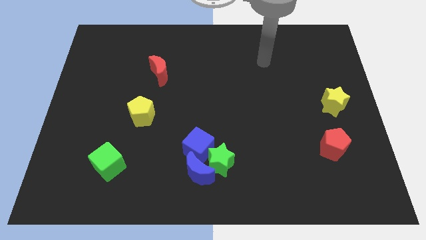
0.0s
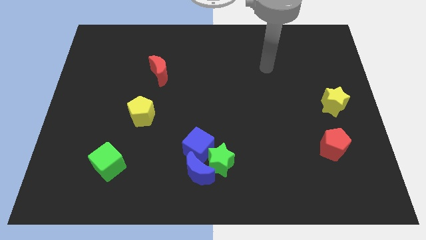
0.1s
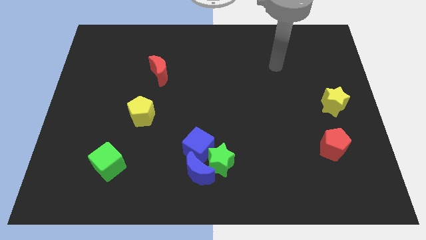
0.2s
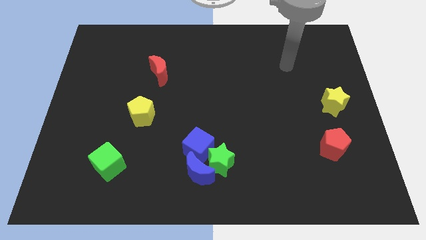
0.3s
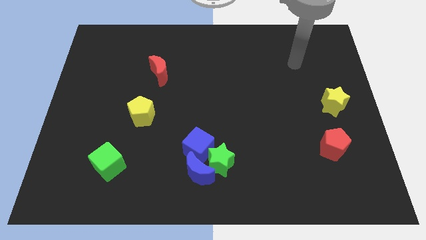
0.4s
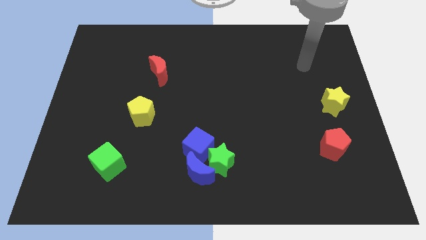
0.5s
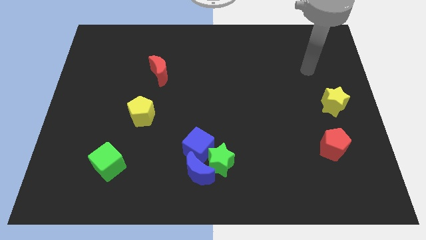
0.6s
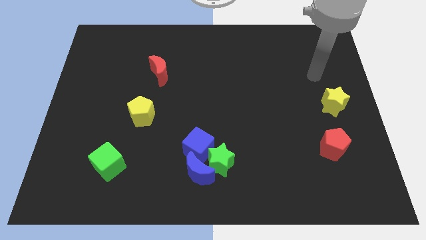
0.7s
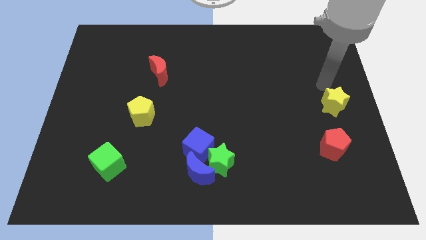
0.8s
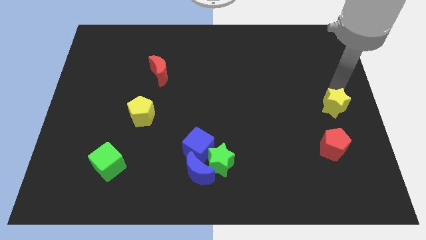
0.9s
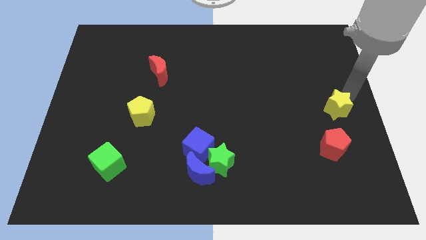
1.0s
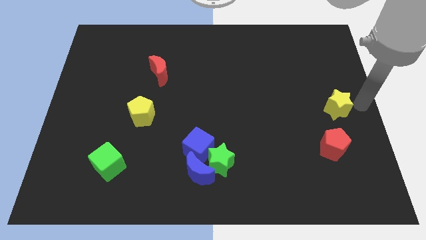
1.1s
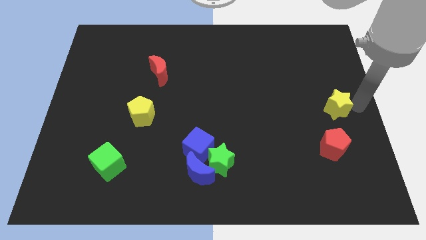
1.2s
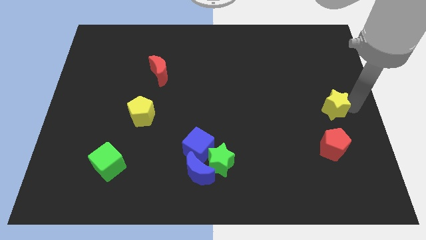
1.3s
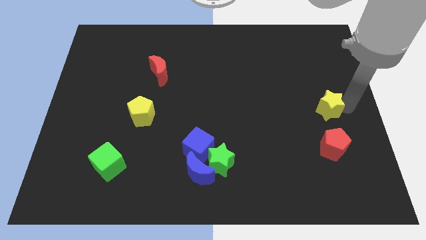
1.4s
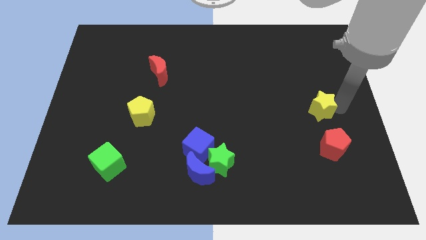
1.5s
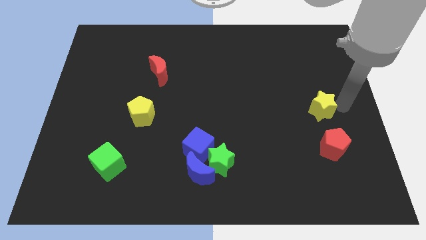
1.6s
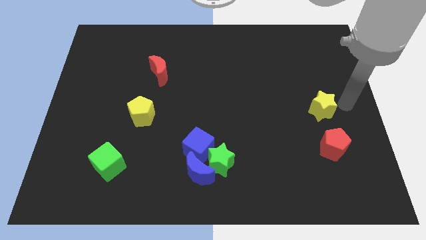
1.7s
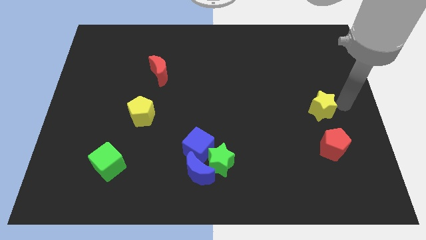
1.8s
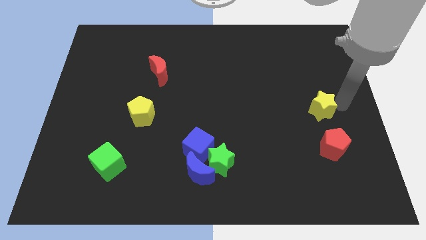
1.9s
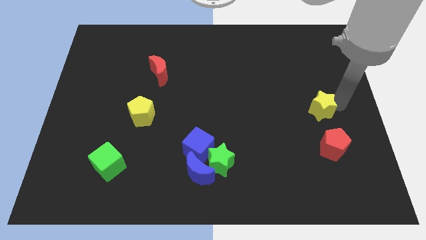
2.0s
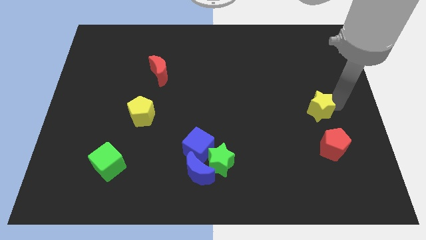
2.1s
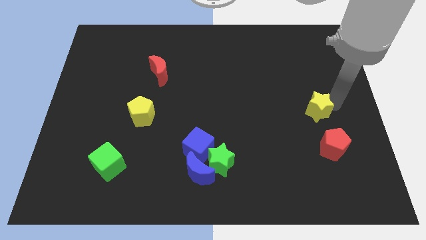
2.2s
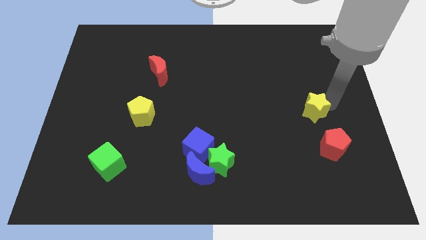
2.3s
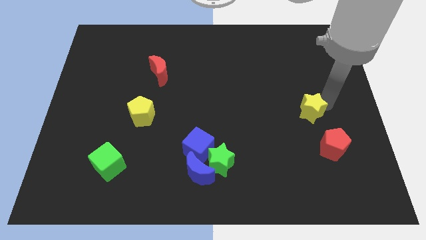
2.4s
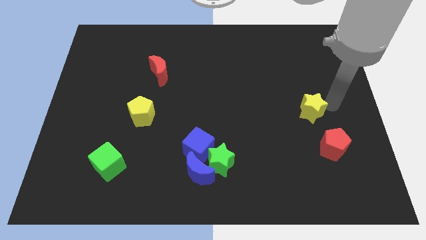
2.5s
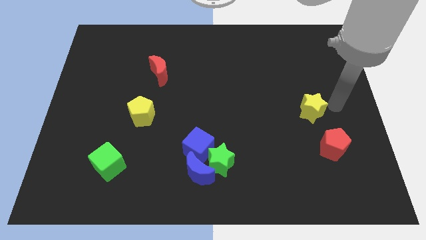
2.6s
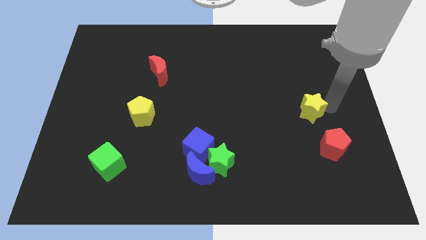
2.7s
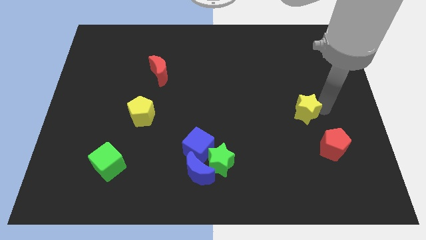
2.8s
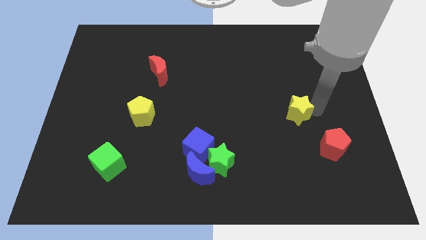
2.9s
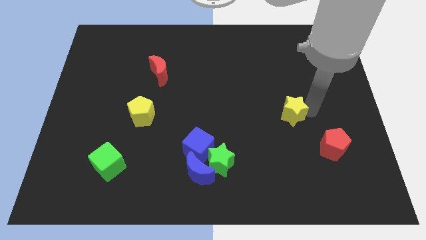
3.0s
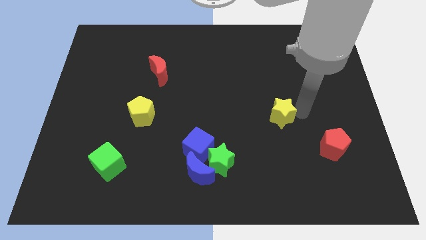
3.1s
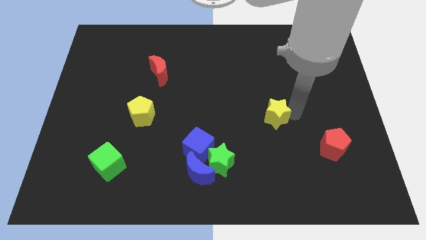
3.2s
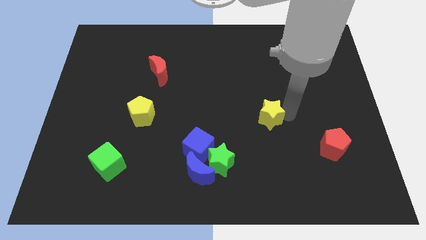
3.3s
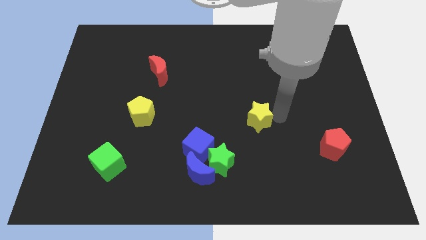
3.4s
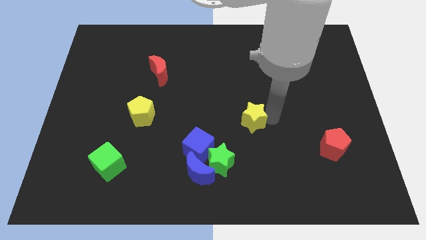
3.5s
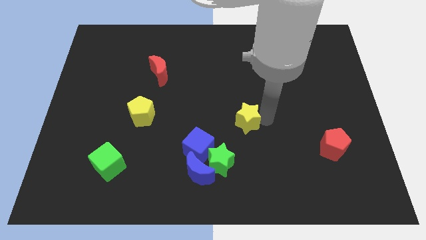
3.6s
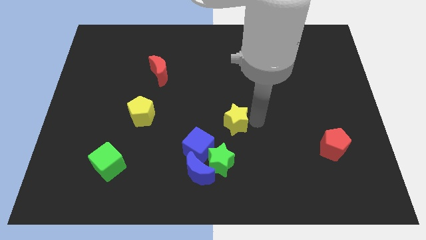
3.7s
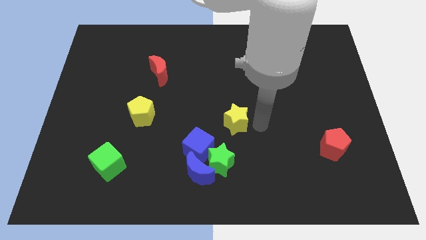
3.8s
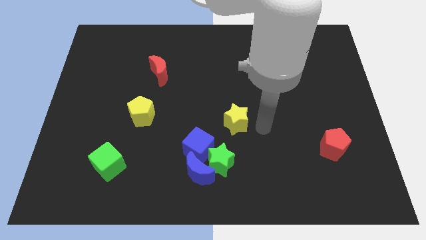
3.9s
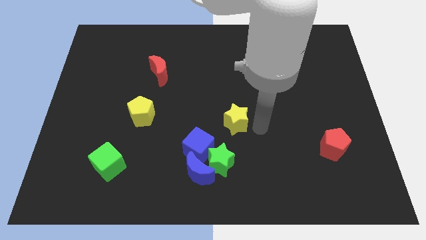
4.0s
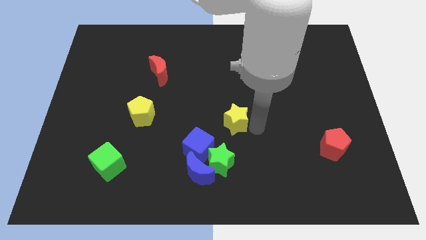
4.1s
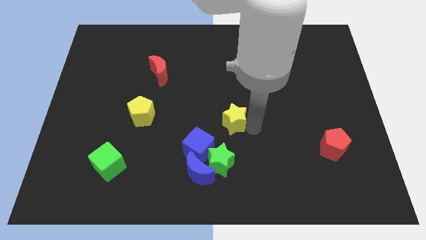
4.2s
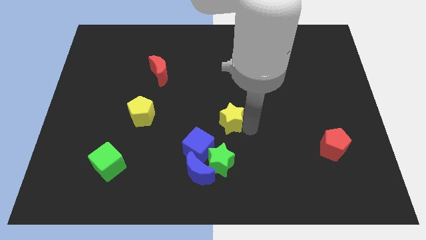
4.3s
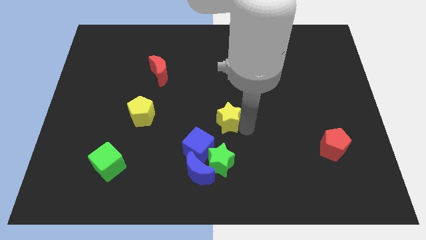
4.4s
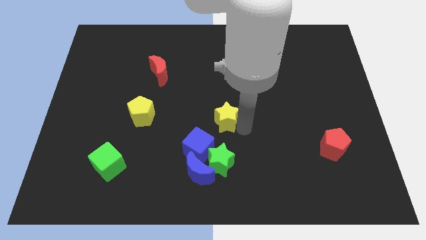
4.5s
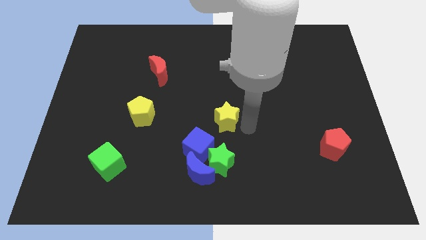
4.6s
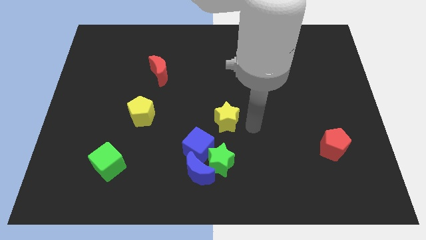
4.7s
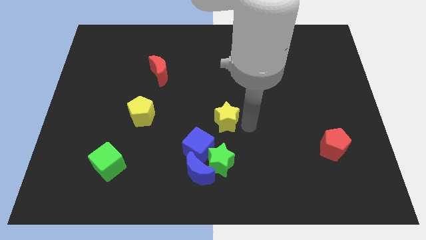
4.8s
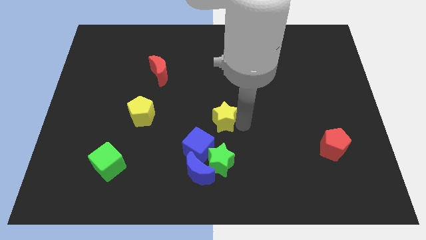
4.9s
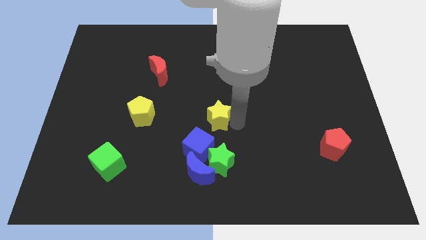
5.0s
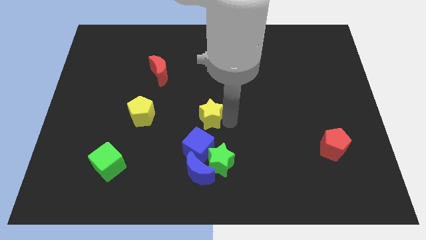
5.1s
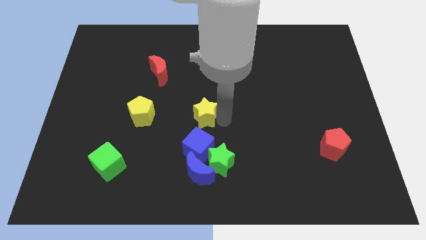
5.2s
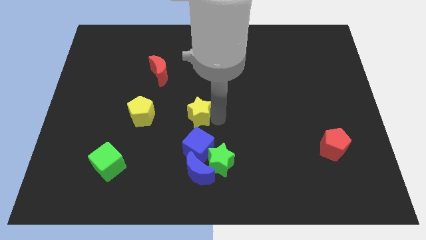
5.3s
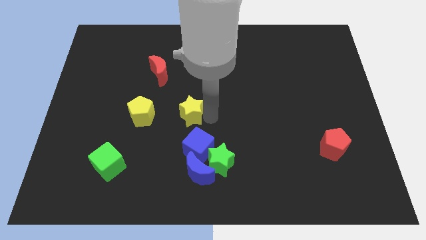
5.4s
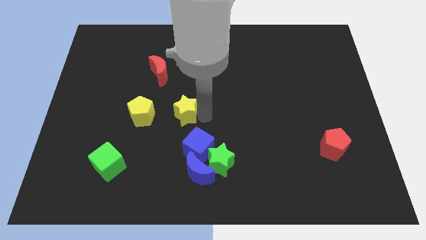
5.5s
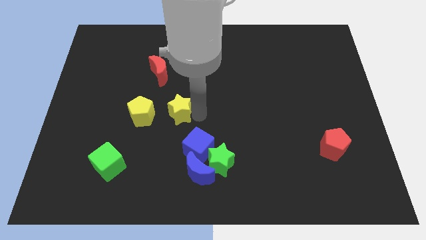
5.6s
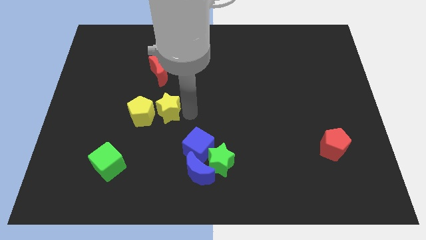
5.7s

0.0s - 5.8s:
put the yellow star towards the yellow pentagon

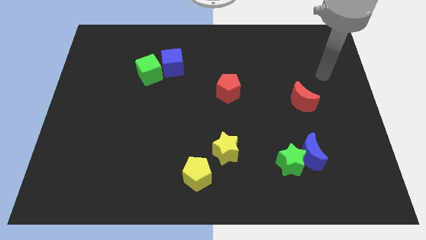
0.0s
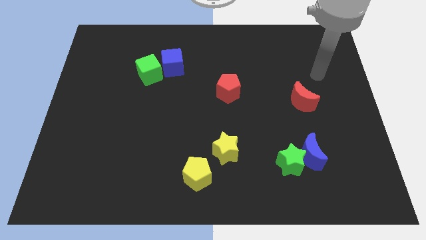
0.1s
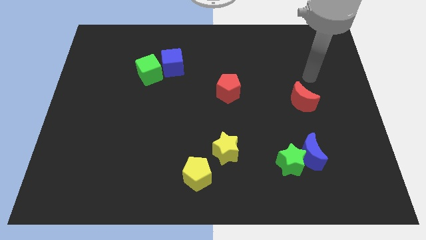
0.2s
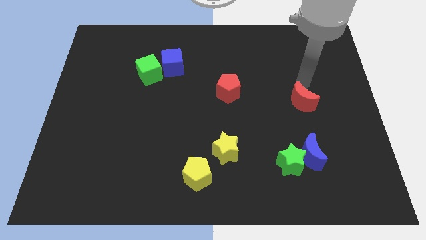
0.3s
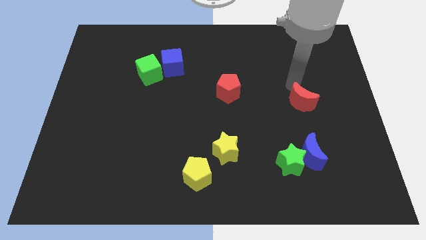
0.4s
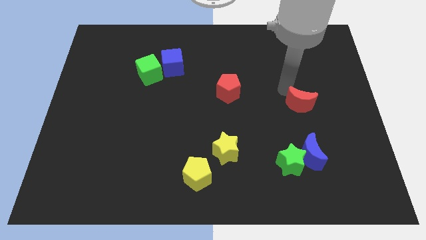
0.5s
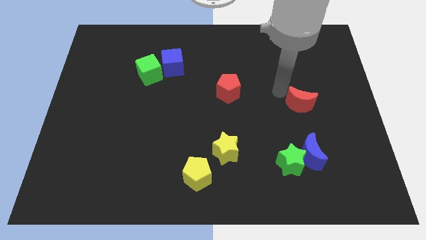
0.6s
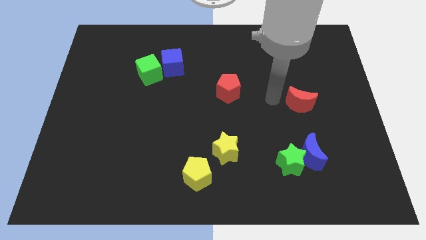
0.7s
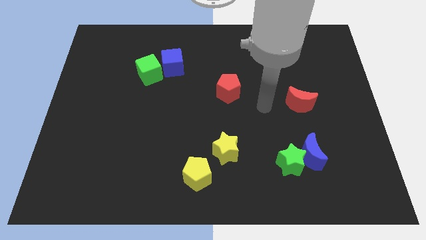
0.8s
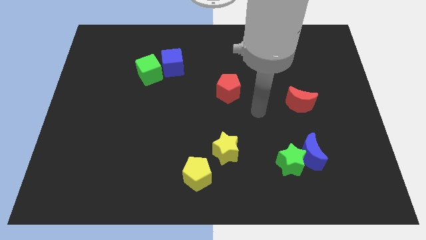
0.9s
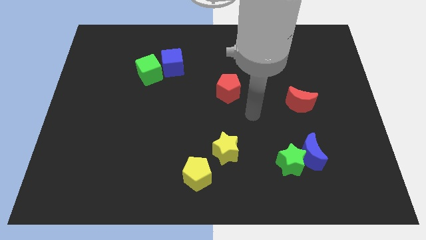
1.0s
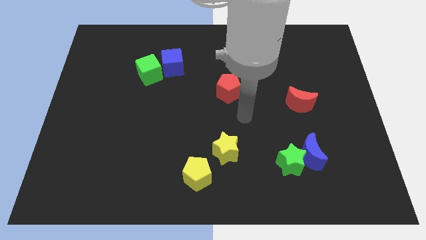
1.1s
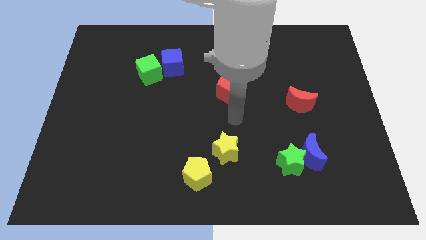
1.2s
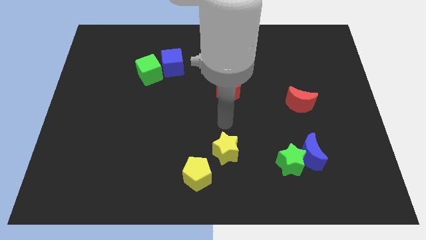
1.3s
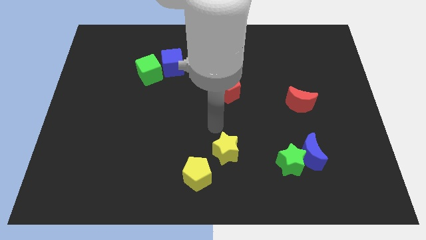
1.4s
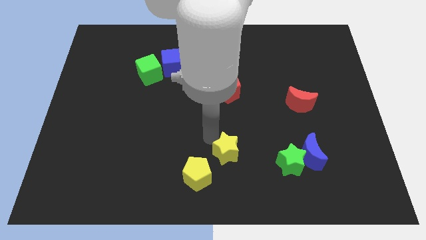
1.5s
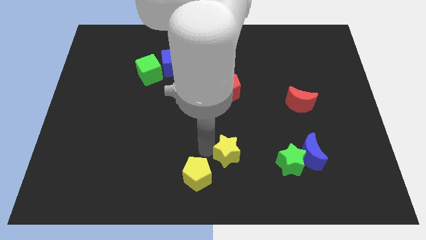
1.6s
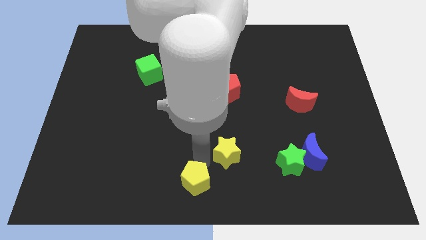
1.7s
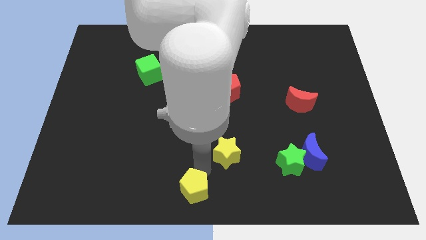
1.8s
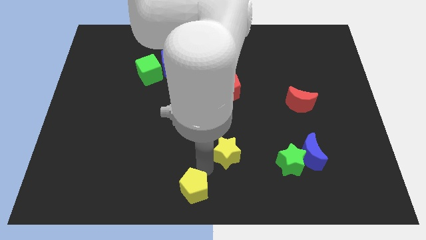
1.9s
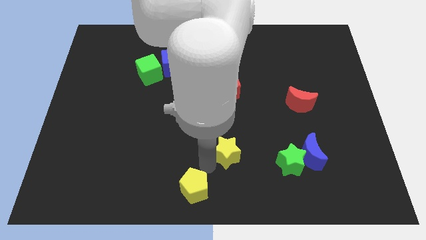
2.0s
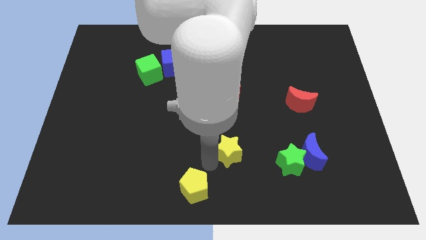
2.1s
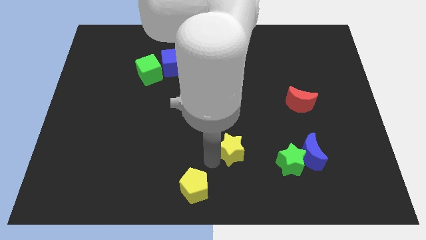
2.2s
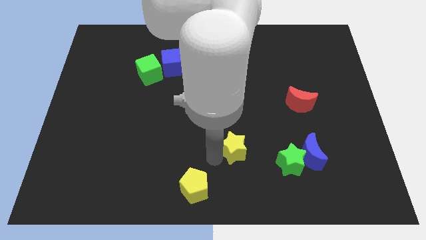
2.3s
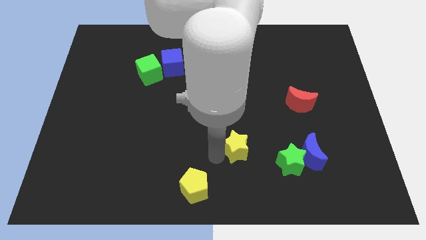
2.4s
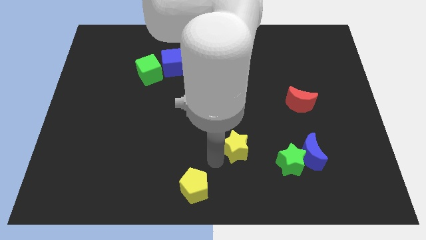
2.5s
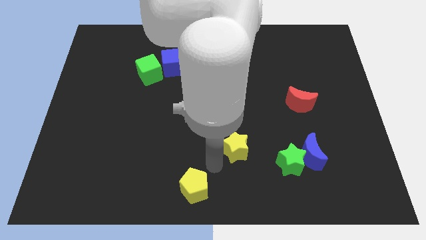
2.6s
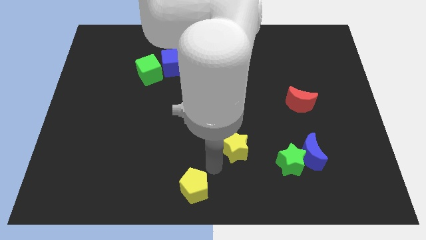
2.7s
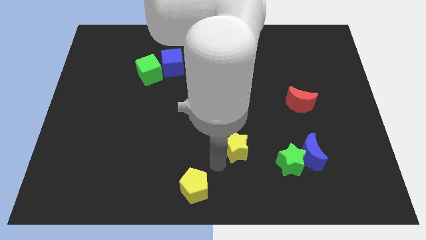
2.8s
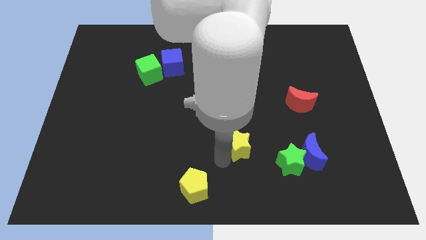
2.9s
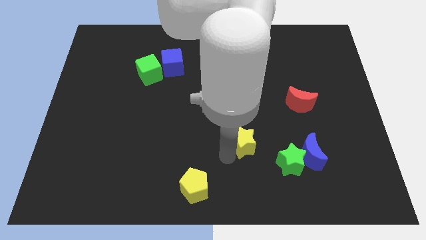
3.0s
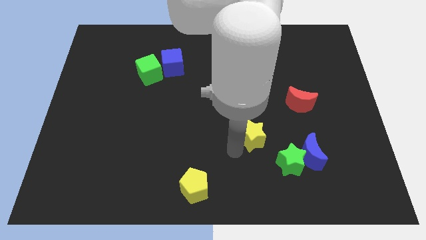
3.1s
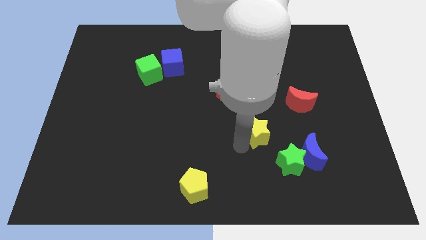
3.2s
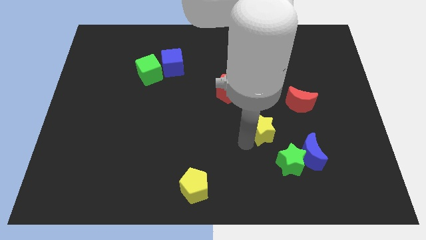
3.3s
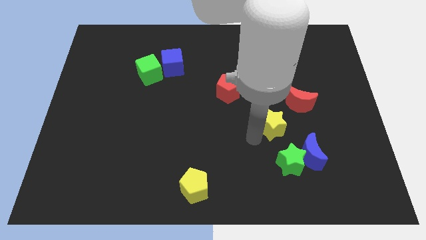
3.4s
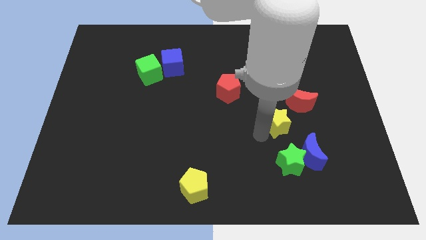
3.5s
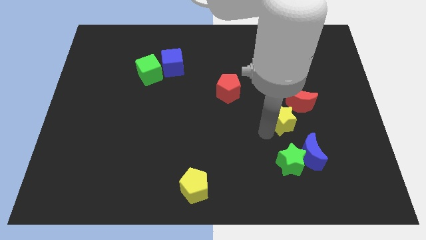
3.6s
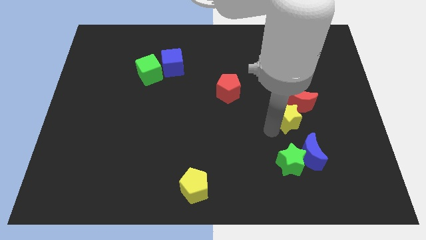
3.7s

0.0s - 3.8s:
put the yellow star to the red moon
